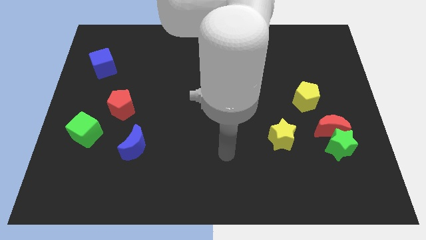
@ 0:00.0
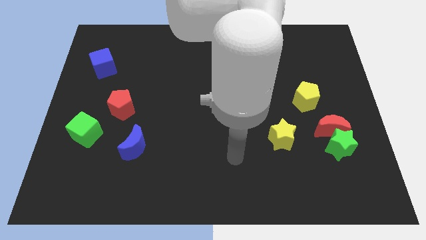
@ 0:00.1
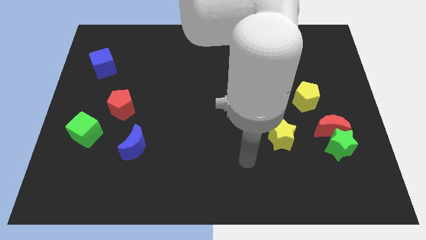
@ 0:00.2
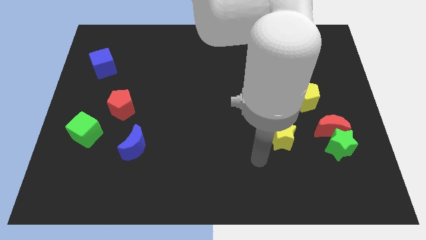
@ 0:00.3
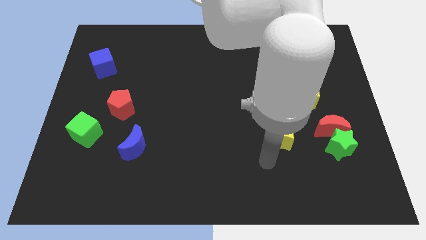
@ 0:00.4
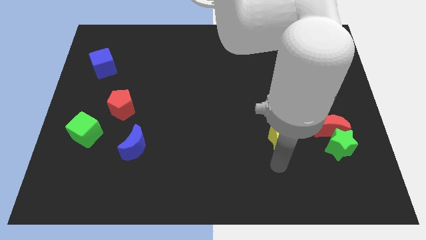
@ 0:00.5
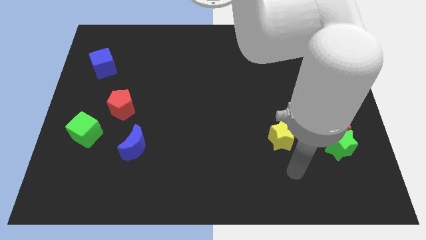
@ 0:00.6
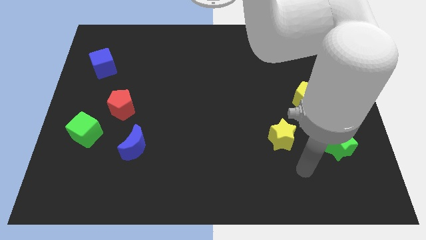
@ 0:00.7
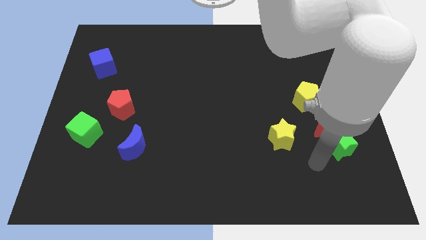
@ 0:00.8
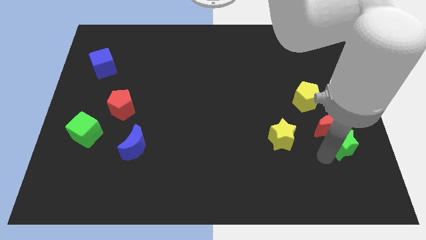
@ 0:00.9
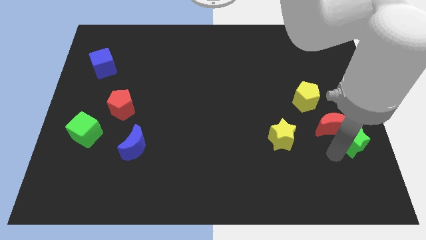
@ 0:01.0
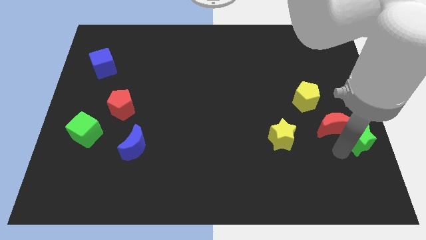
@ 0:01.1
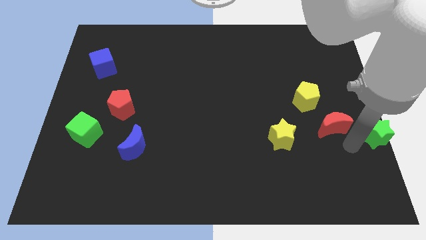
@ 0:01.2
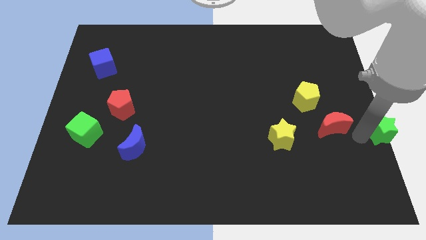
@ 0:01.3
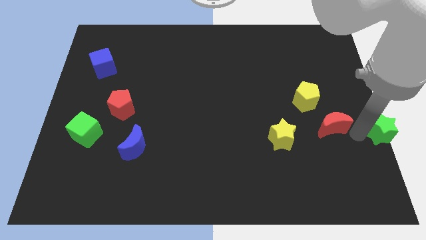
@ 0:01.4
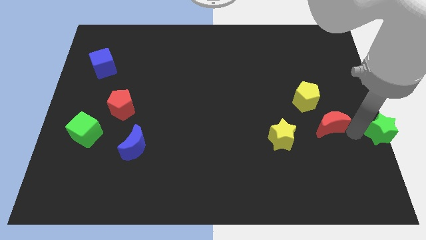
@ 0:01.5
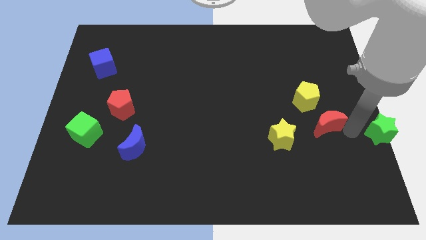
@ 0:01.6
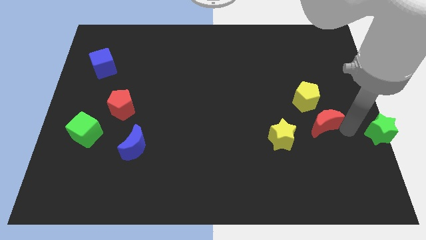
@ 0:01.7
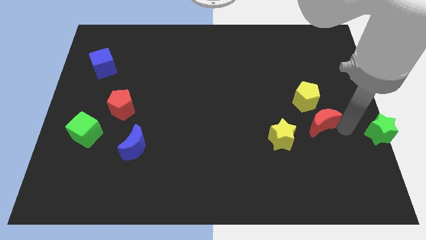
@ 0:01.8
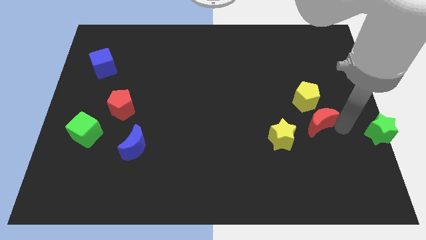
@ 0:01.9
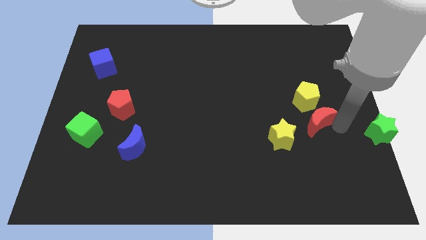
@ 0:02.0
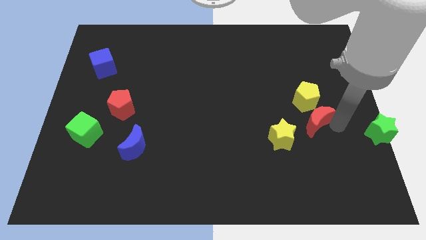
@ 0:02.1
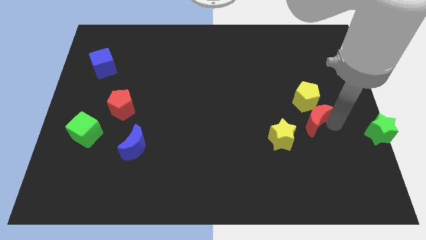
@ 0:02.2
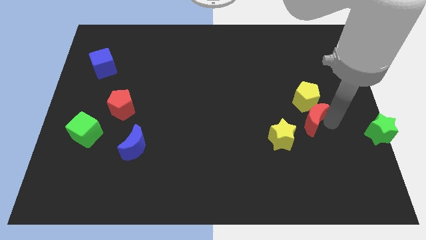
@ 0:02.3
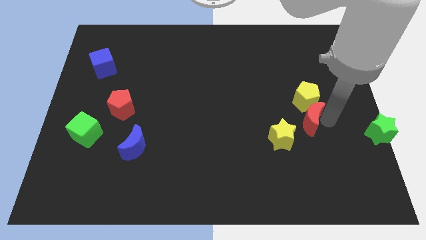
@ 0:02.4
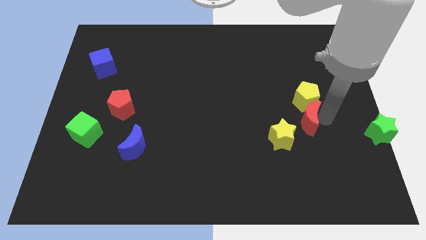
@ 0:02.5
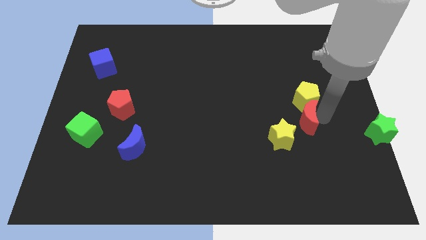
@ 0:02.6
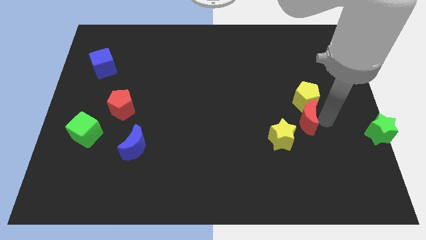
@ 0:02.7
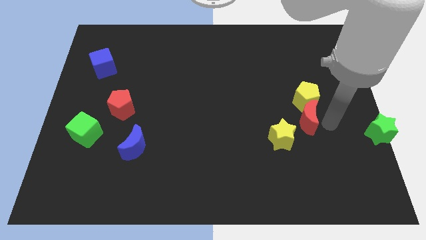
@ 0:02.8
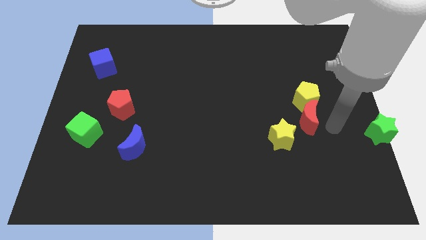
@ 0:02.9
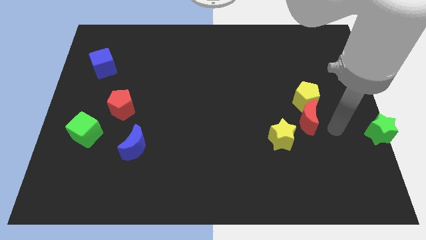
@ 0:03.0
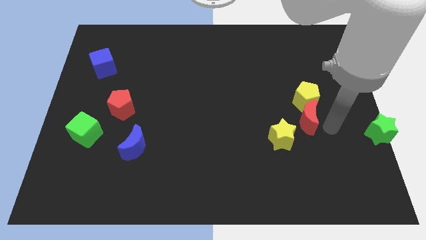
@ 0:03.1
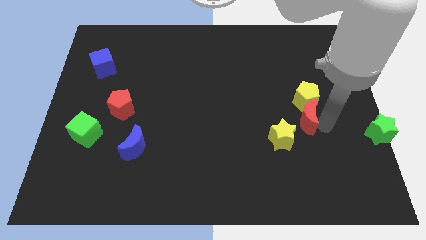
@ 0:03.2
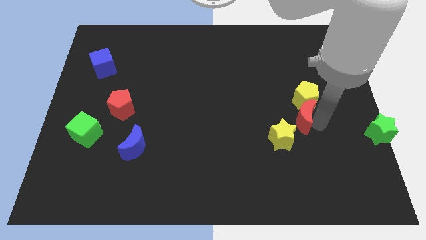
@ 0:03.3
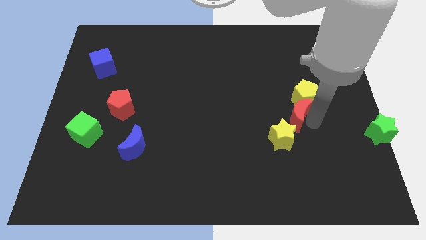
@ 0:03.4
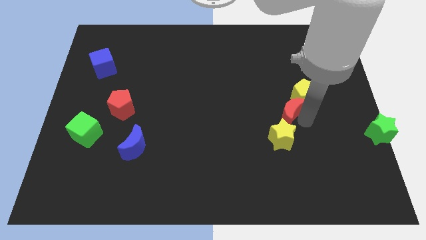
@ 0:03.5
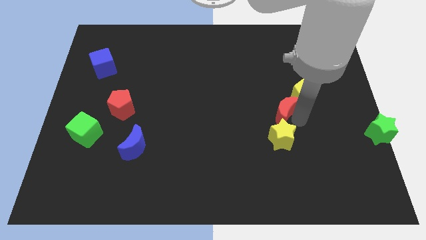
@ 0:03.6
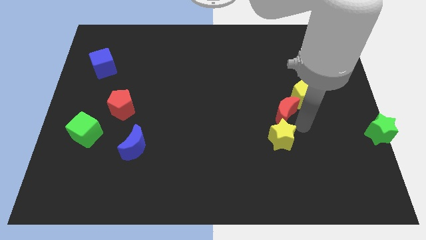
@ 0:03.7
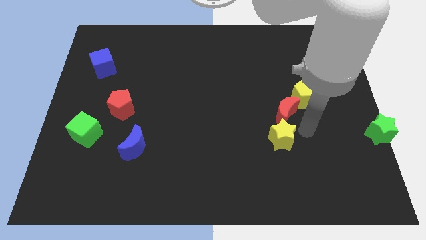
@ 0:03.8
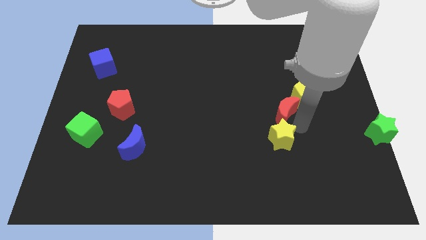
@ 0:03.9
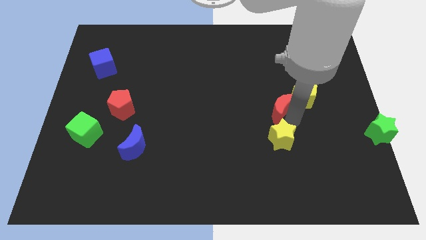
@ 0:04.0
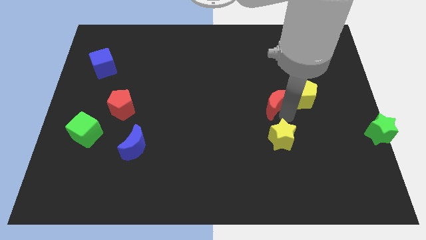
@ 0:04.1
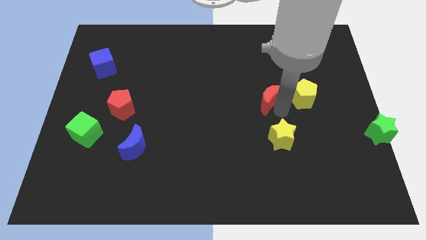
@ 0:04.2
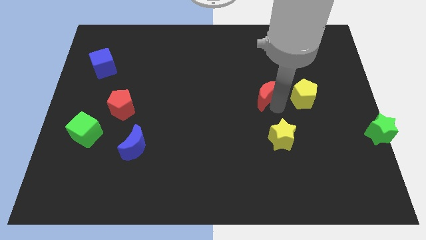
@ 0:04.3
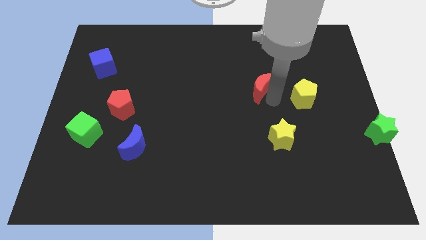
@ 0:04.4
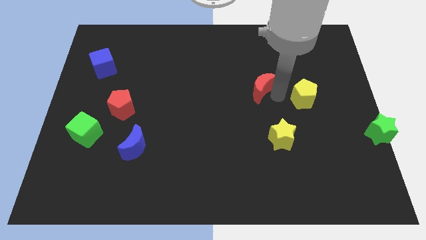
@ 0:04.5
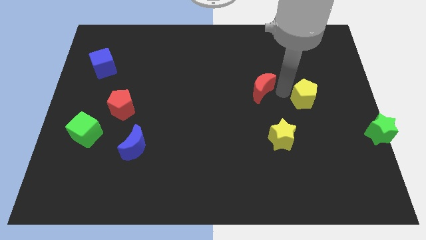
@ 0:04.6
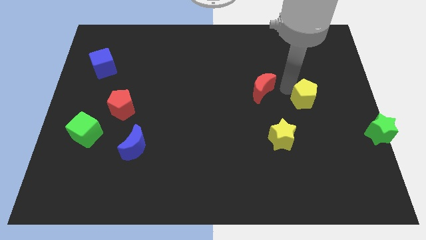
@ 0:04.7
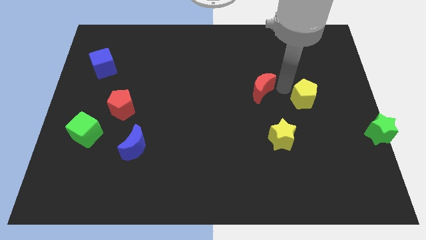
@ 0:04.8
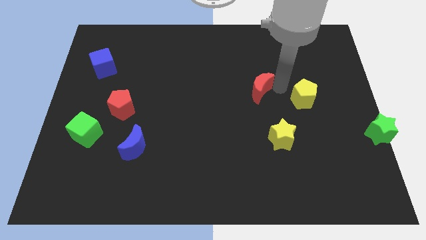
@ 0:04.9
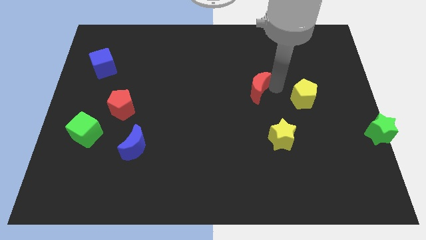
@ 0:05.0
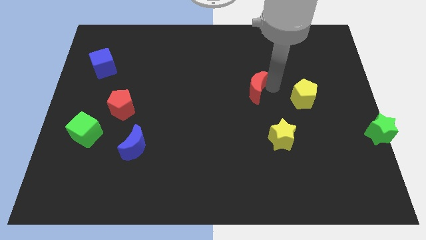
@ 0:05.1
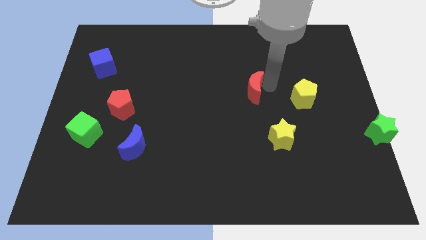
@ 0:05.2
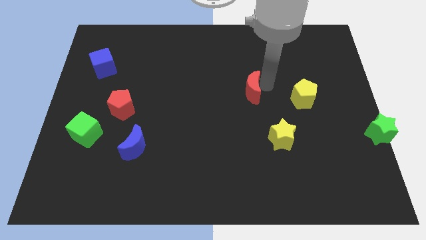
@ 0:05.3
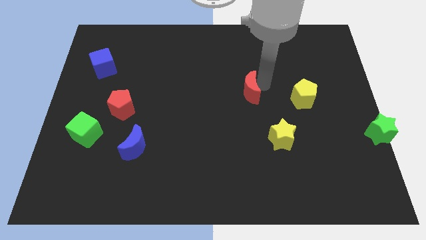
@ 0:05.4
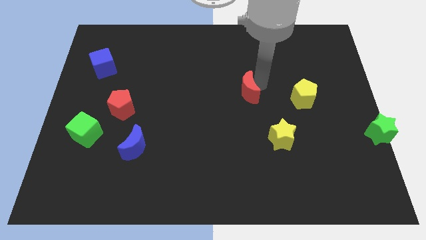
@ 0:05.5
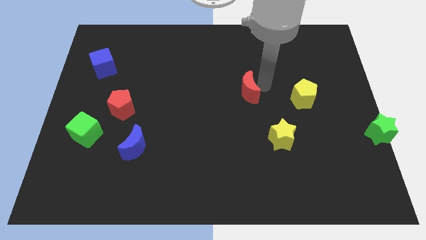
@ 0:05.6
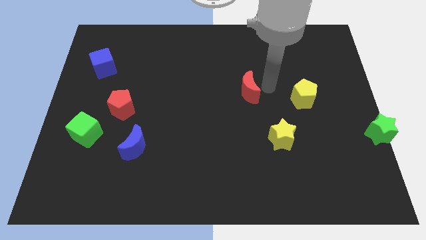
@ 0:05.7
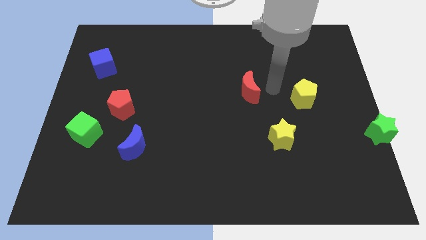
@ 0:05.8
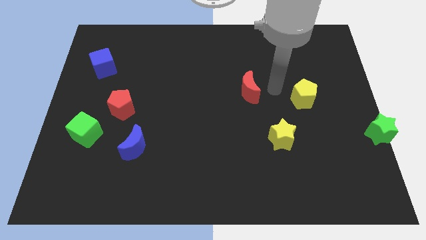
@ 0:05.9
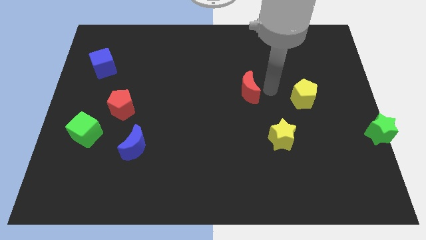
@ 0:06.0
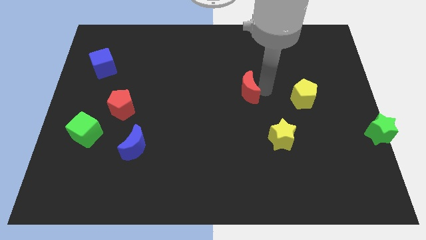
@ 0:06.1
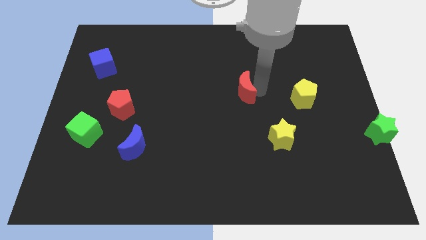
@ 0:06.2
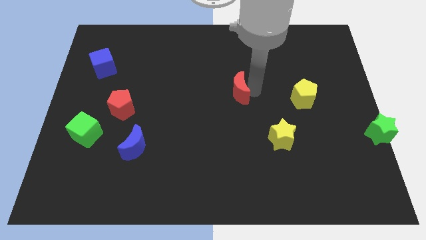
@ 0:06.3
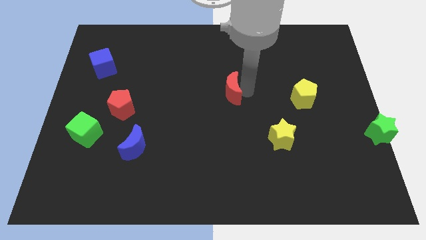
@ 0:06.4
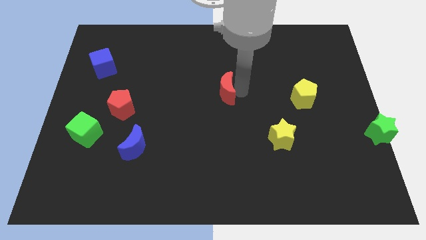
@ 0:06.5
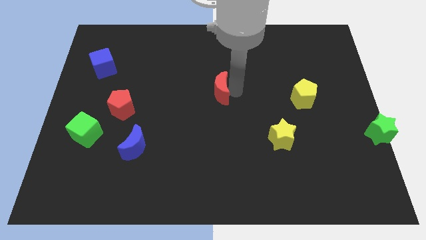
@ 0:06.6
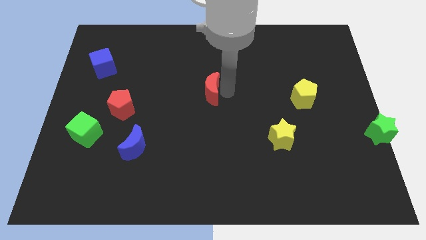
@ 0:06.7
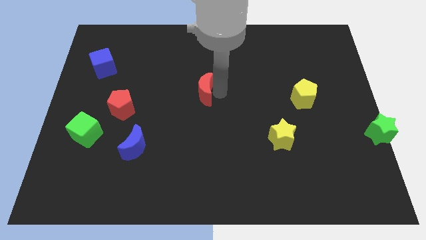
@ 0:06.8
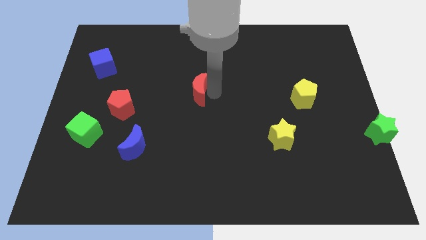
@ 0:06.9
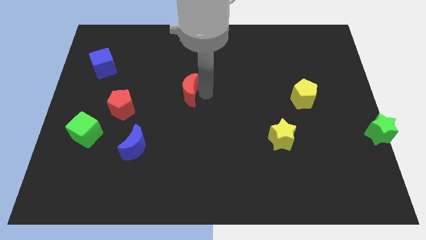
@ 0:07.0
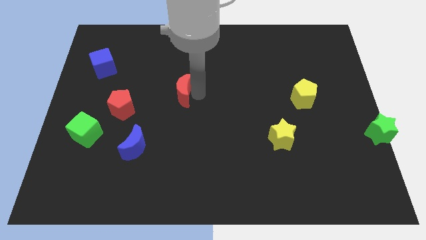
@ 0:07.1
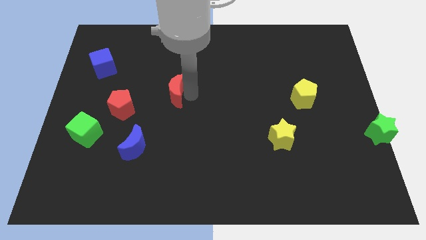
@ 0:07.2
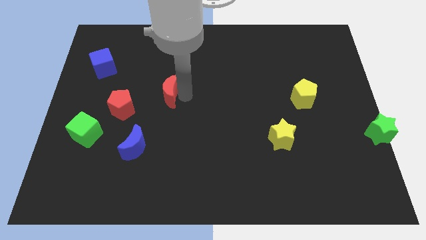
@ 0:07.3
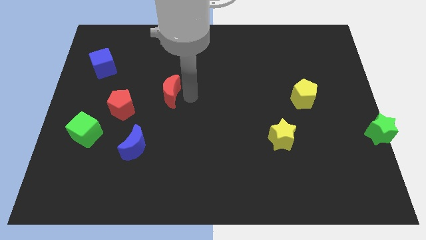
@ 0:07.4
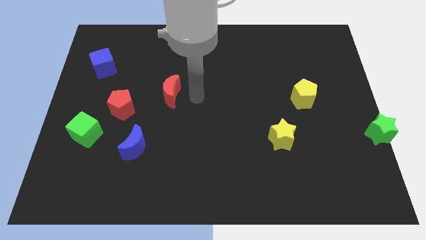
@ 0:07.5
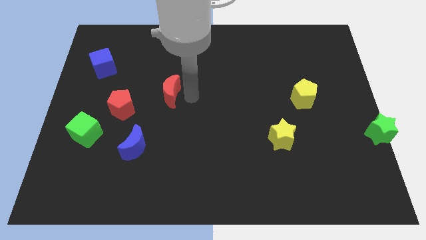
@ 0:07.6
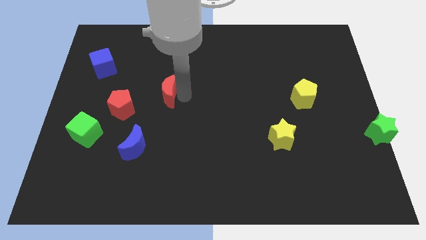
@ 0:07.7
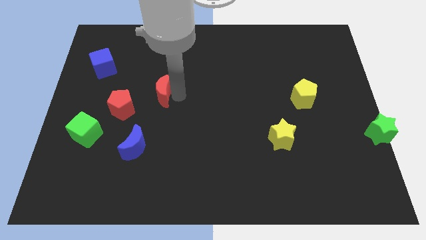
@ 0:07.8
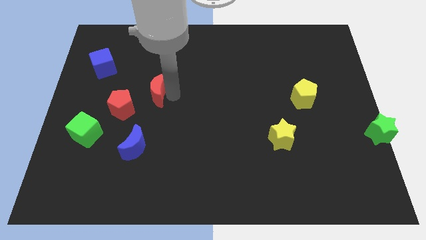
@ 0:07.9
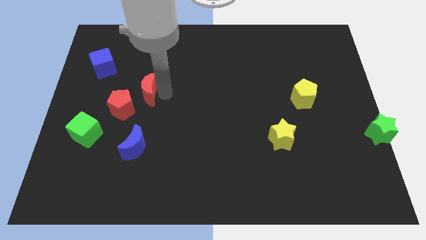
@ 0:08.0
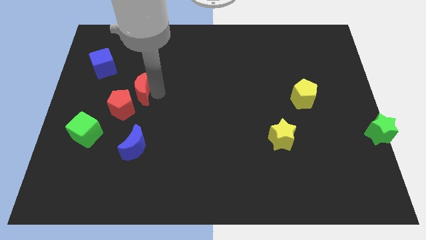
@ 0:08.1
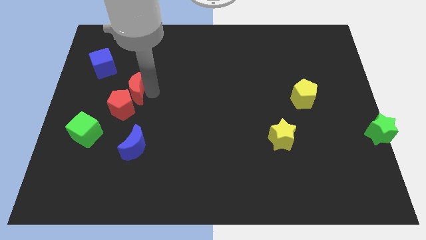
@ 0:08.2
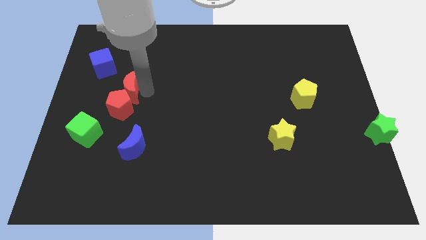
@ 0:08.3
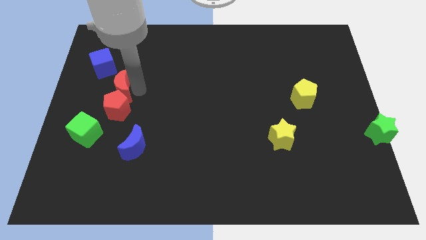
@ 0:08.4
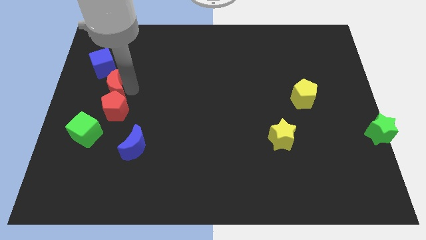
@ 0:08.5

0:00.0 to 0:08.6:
slide the red moon above the green cube
